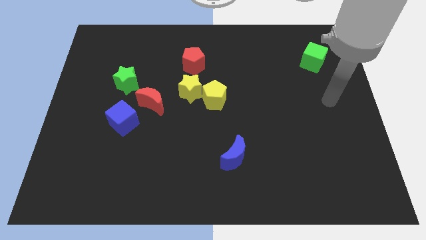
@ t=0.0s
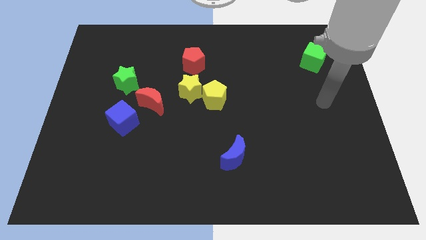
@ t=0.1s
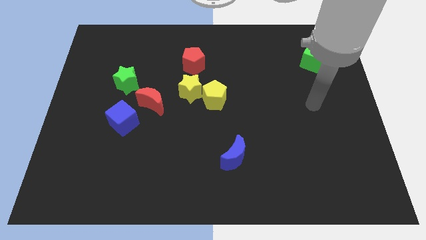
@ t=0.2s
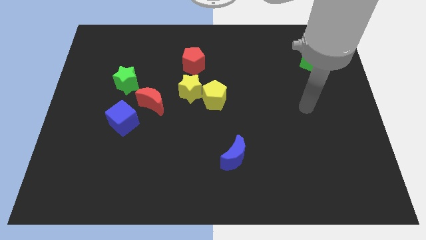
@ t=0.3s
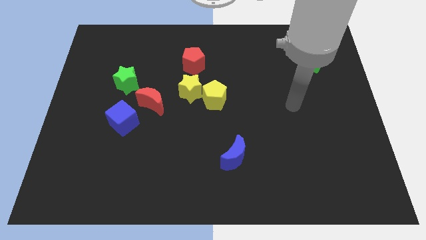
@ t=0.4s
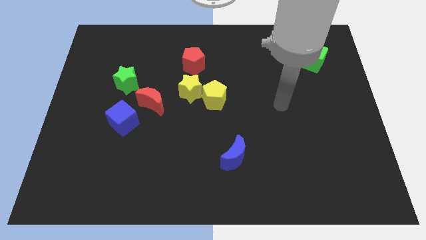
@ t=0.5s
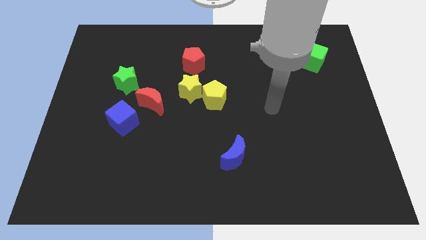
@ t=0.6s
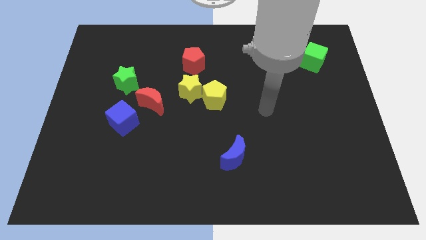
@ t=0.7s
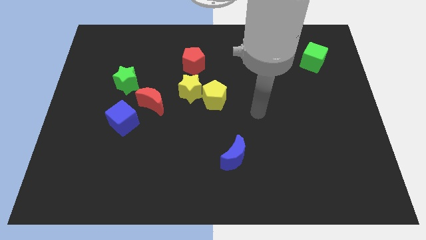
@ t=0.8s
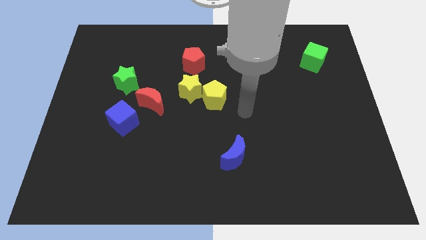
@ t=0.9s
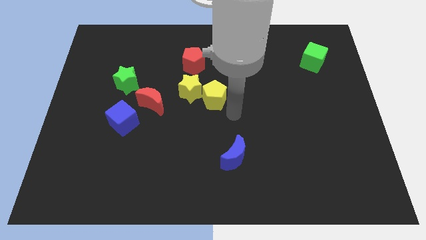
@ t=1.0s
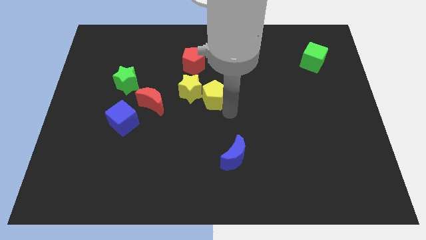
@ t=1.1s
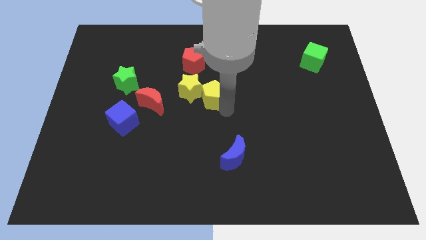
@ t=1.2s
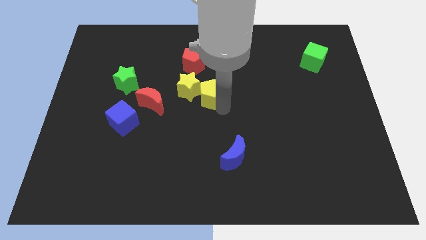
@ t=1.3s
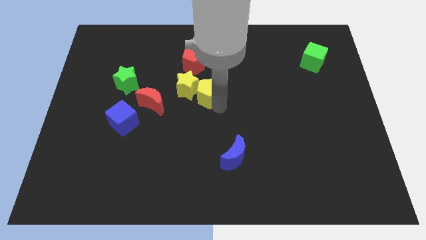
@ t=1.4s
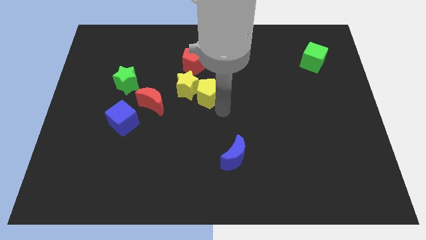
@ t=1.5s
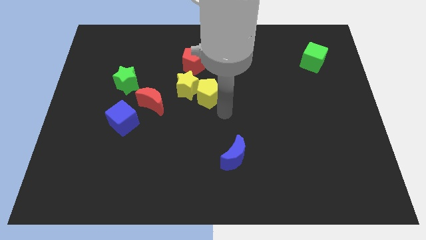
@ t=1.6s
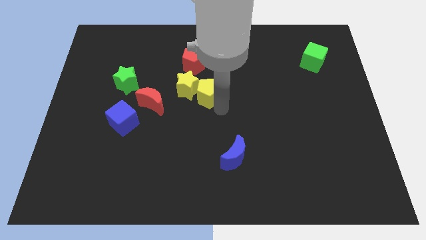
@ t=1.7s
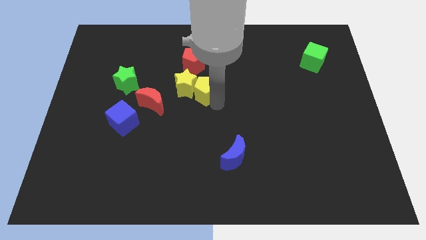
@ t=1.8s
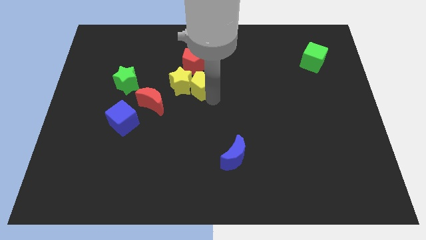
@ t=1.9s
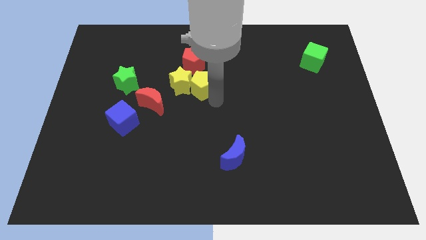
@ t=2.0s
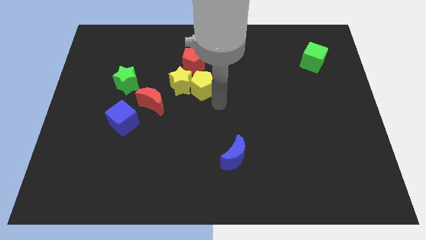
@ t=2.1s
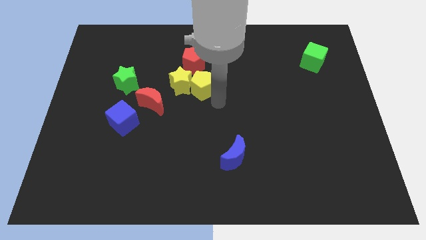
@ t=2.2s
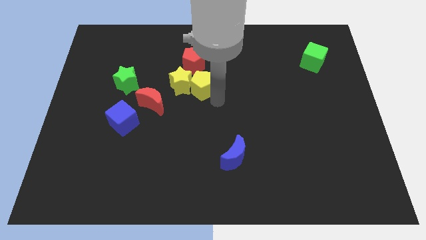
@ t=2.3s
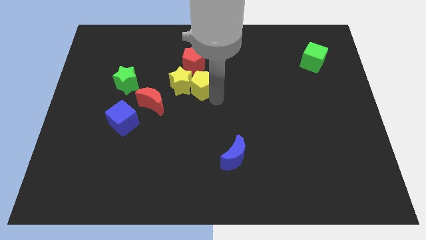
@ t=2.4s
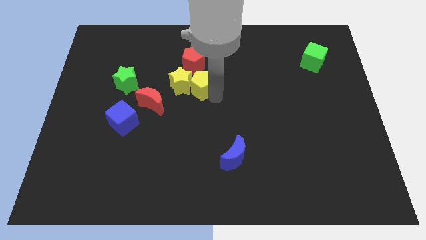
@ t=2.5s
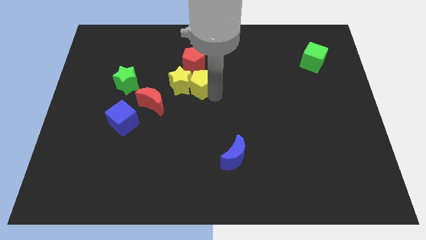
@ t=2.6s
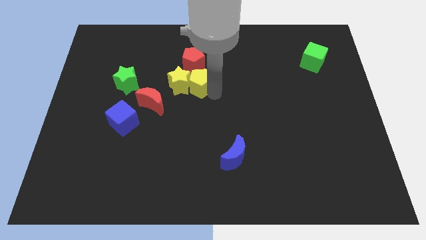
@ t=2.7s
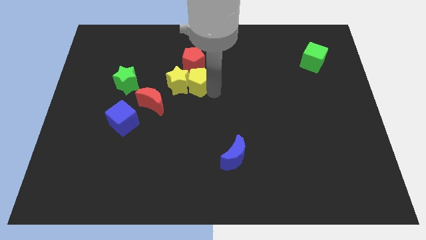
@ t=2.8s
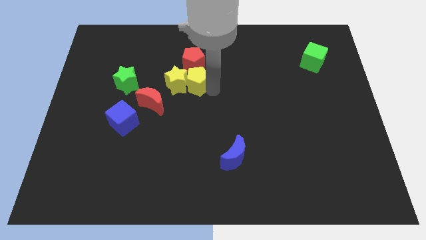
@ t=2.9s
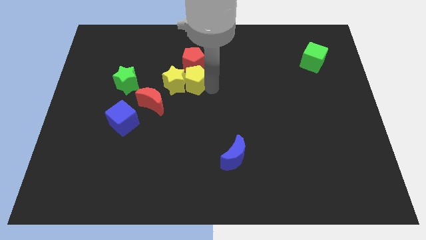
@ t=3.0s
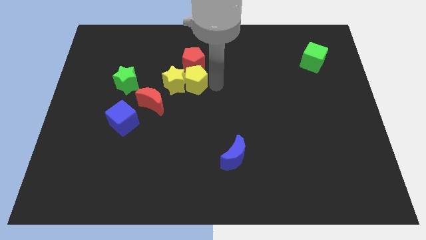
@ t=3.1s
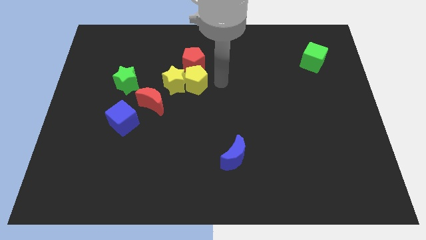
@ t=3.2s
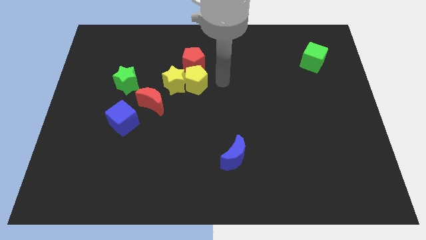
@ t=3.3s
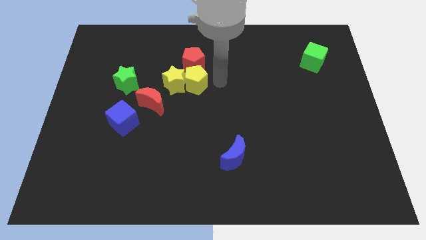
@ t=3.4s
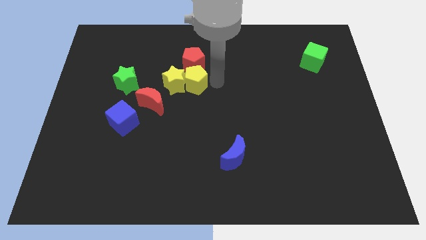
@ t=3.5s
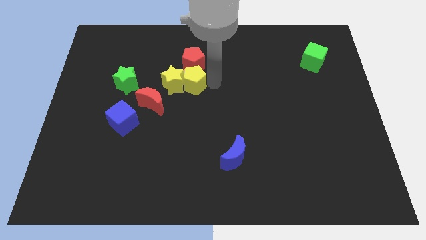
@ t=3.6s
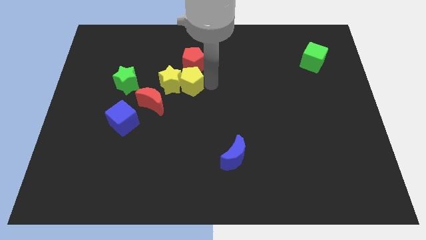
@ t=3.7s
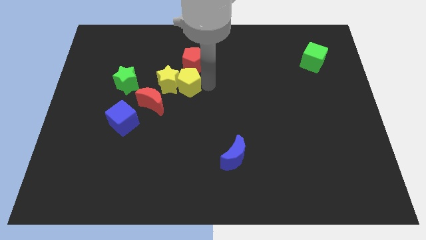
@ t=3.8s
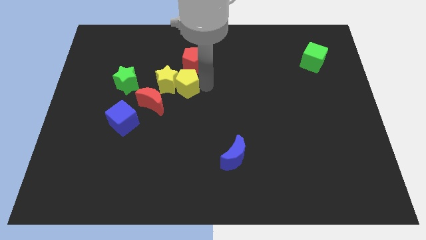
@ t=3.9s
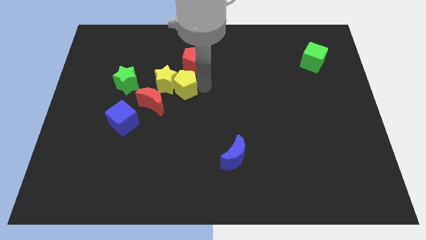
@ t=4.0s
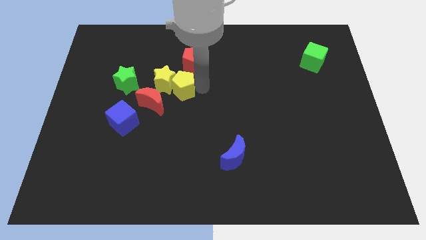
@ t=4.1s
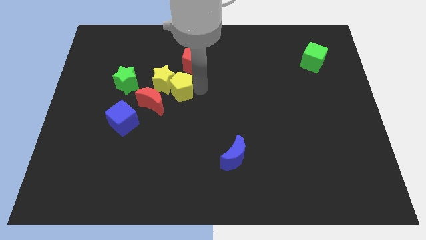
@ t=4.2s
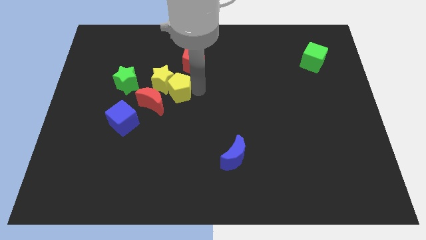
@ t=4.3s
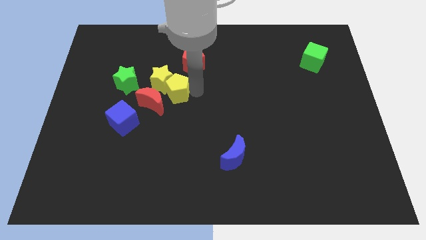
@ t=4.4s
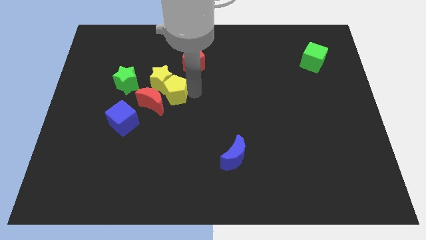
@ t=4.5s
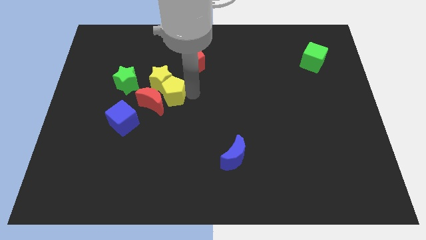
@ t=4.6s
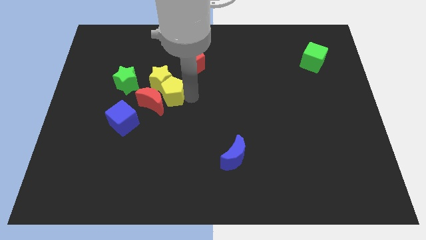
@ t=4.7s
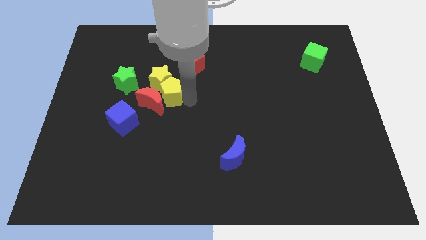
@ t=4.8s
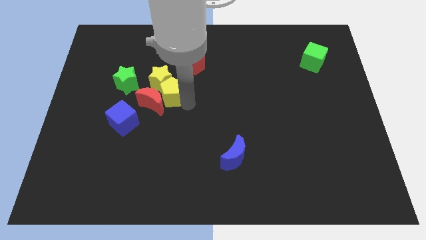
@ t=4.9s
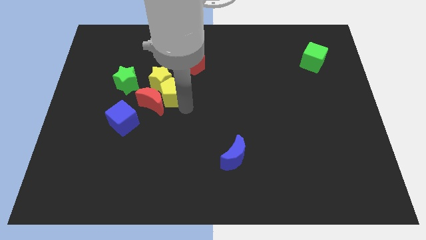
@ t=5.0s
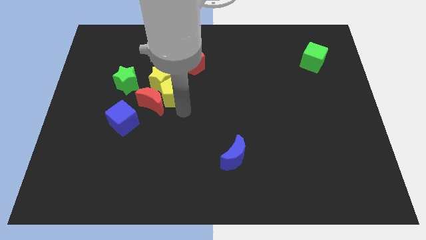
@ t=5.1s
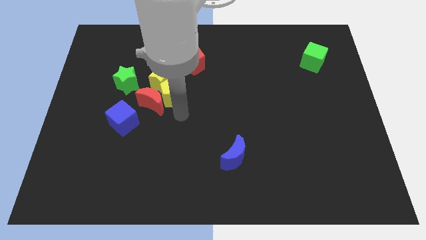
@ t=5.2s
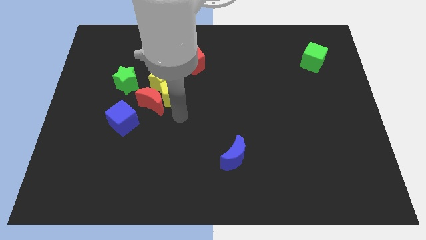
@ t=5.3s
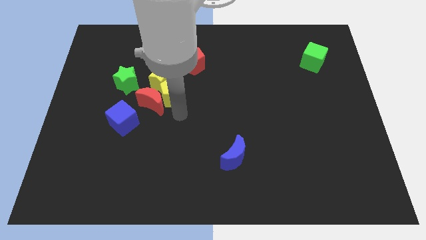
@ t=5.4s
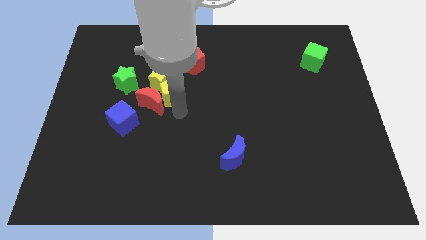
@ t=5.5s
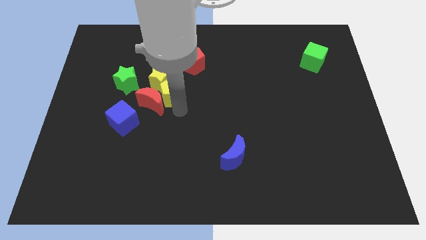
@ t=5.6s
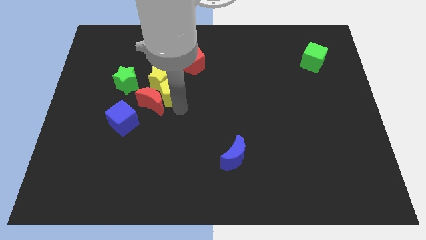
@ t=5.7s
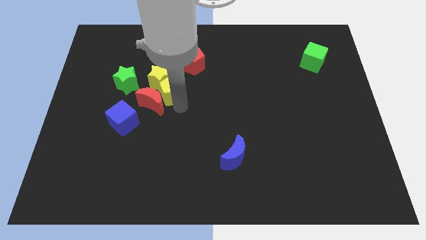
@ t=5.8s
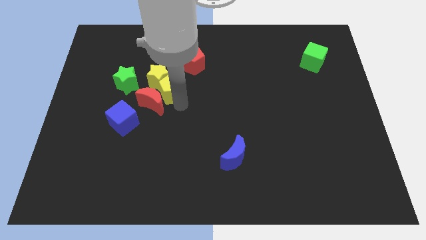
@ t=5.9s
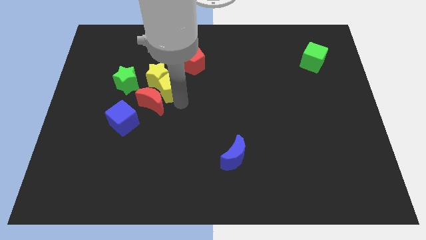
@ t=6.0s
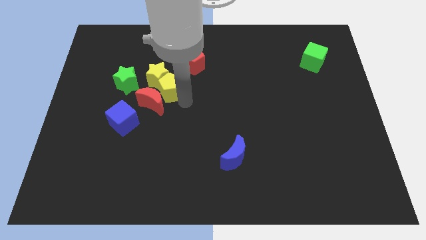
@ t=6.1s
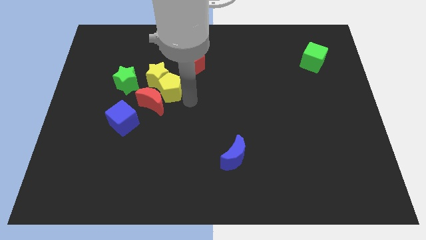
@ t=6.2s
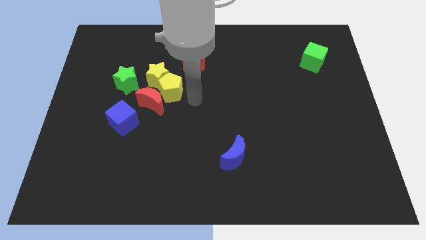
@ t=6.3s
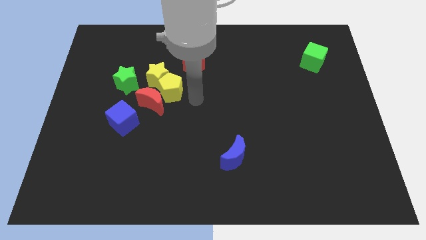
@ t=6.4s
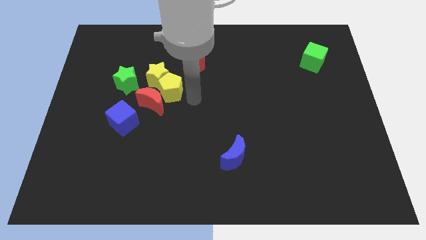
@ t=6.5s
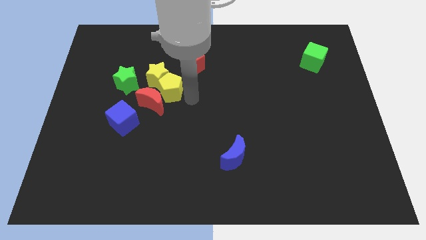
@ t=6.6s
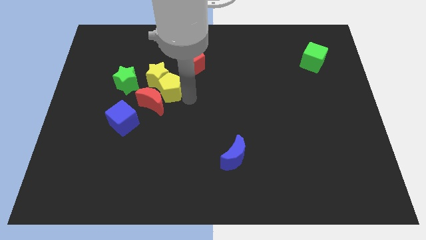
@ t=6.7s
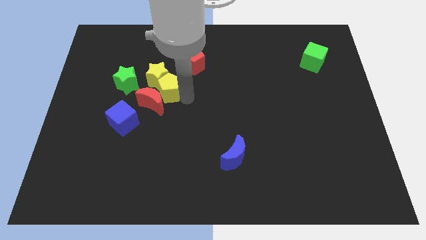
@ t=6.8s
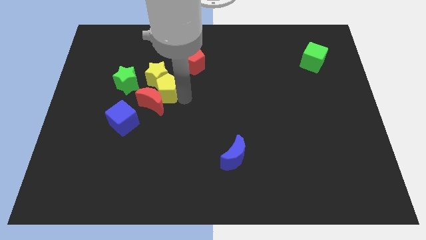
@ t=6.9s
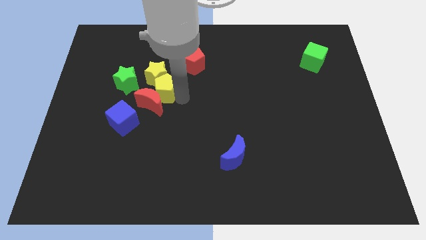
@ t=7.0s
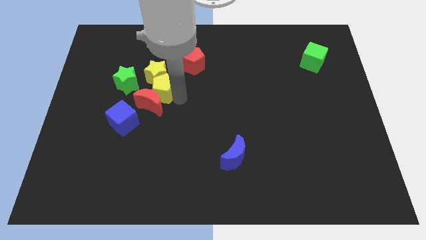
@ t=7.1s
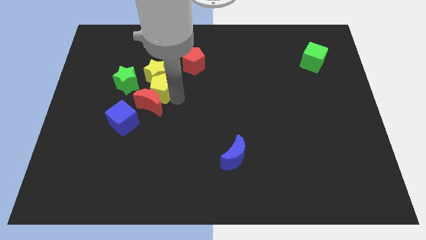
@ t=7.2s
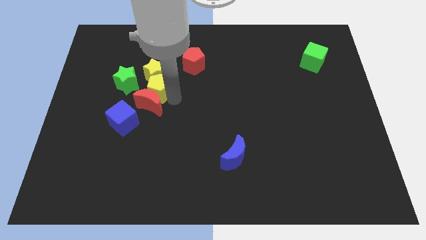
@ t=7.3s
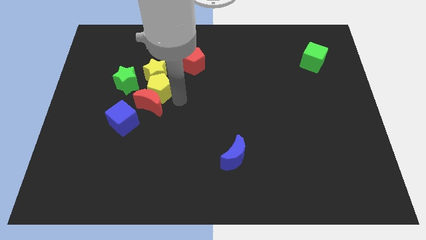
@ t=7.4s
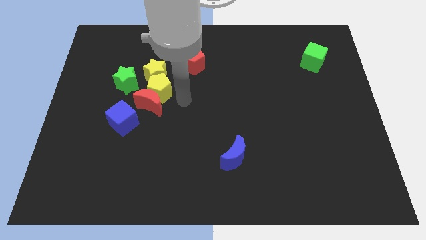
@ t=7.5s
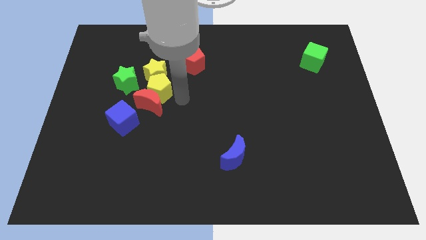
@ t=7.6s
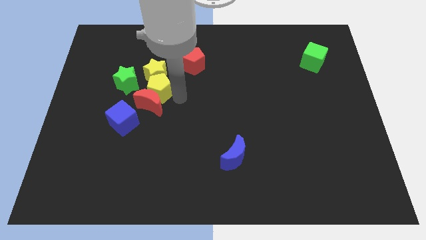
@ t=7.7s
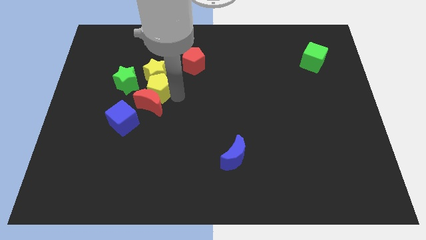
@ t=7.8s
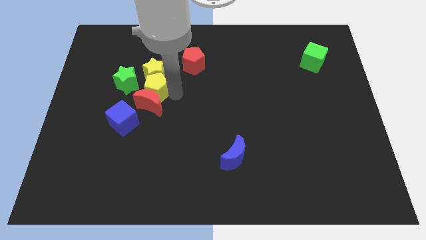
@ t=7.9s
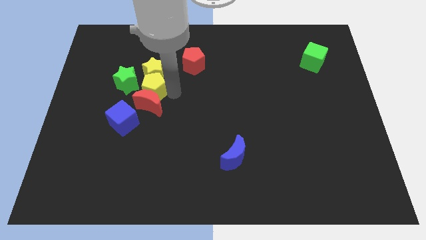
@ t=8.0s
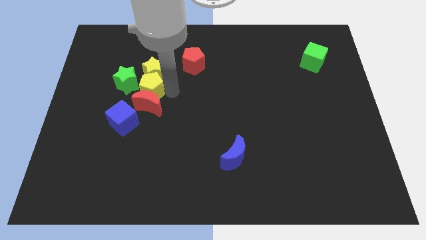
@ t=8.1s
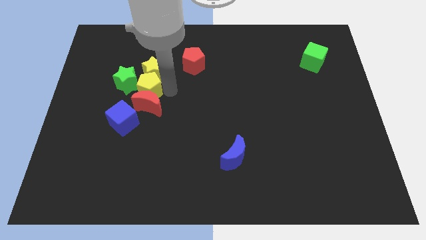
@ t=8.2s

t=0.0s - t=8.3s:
move the yellow pentagon towards the green star
